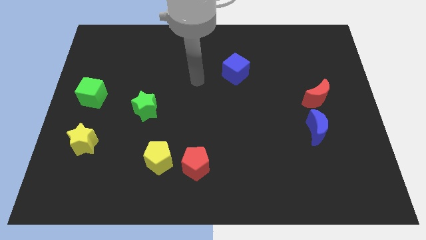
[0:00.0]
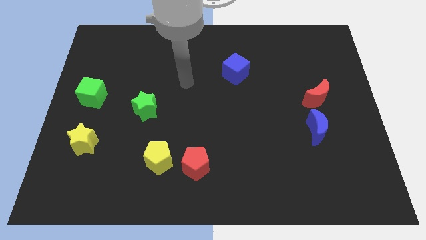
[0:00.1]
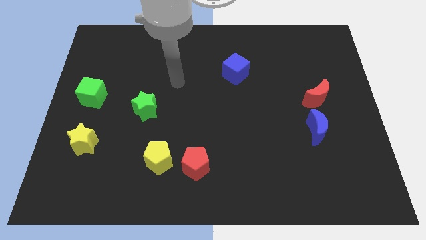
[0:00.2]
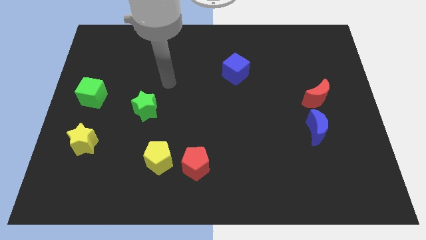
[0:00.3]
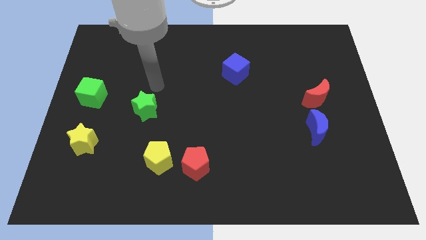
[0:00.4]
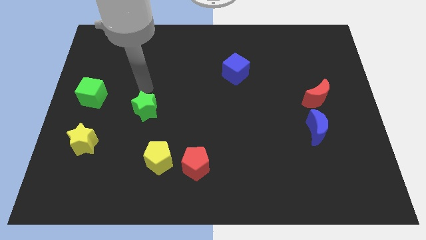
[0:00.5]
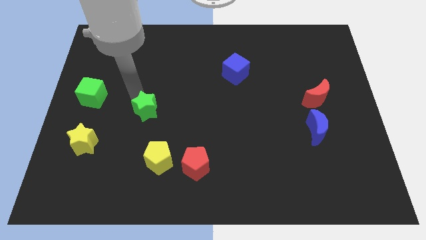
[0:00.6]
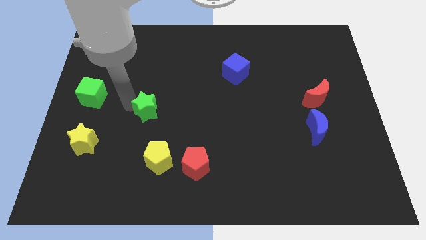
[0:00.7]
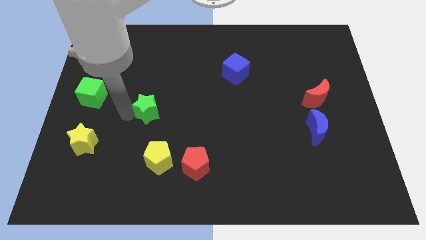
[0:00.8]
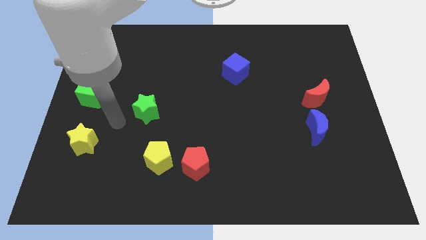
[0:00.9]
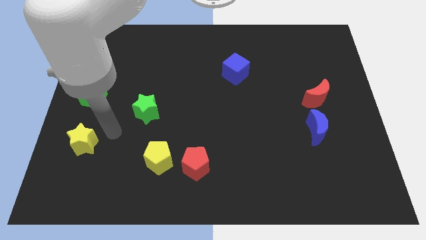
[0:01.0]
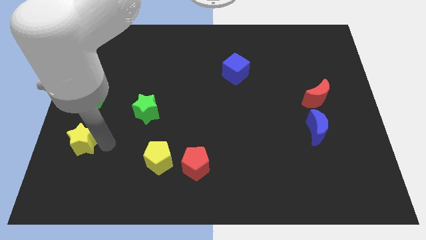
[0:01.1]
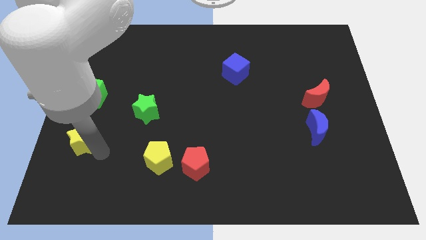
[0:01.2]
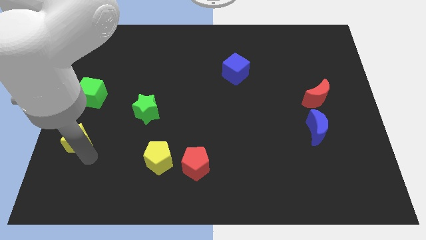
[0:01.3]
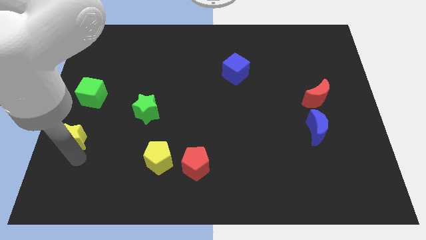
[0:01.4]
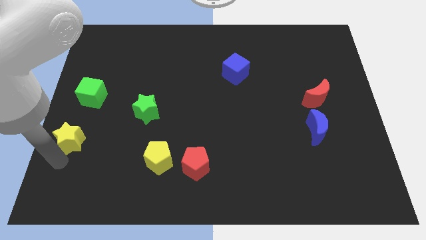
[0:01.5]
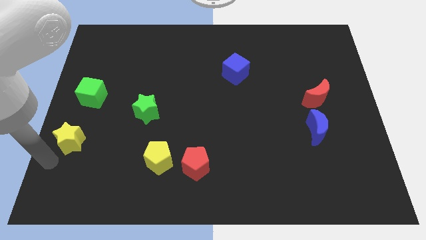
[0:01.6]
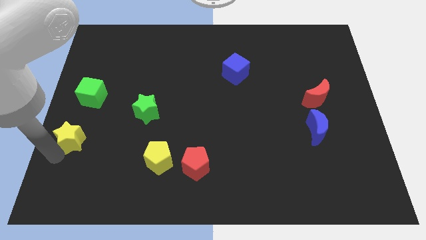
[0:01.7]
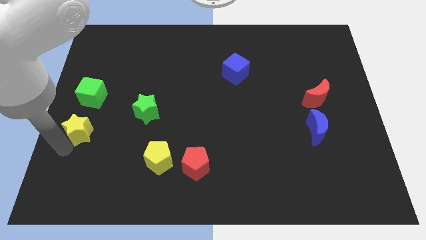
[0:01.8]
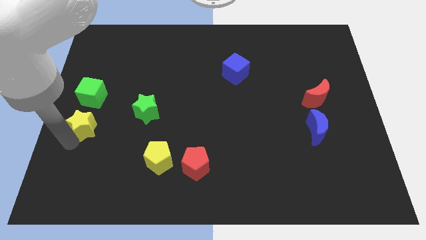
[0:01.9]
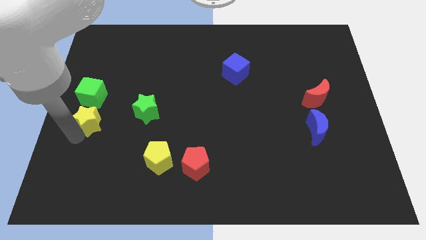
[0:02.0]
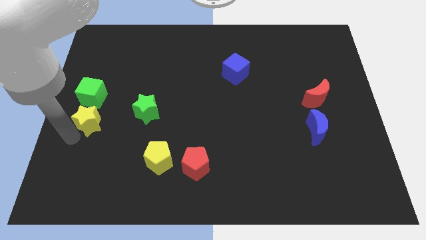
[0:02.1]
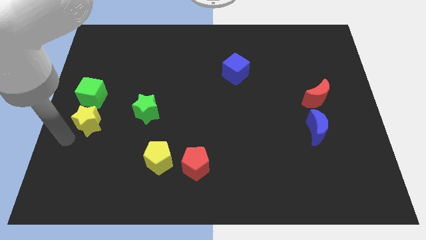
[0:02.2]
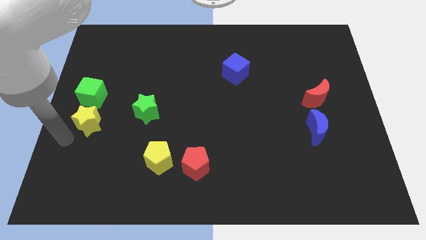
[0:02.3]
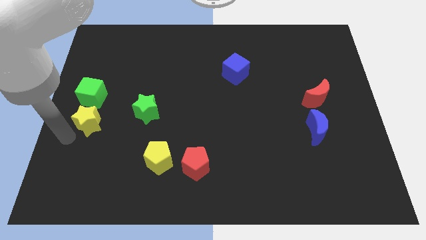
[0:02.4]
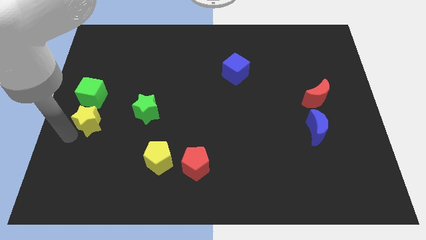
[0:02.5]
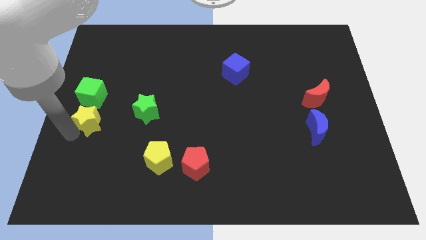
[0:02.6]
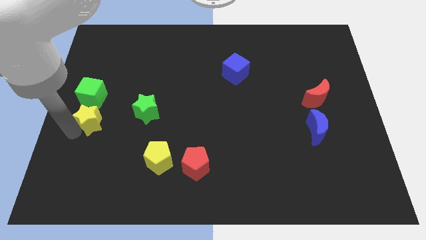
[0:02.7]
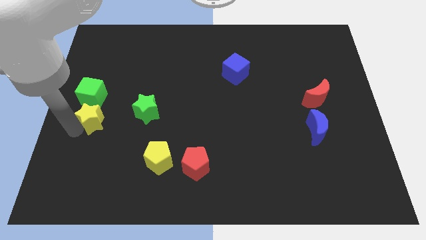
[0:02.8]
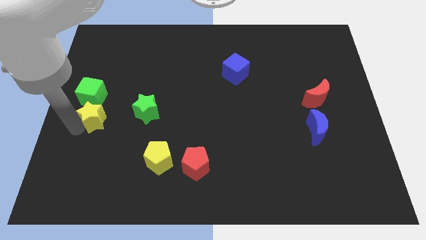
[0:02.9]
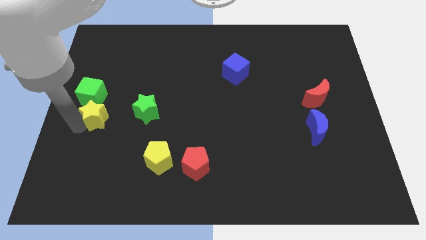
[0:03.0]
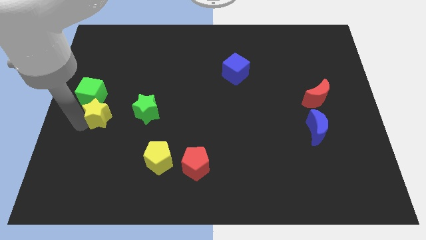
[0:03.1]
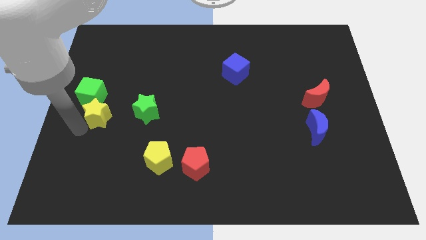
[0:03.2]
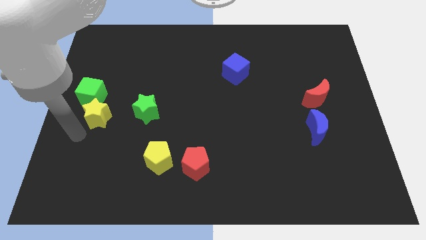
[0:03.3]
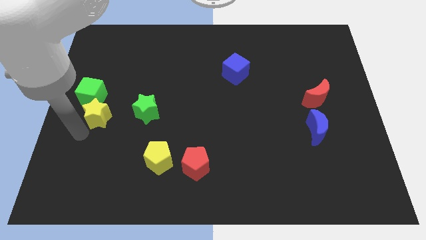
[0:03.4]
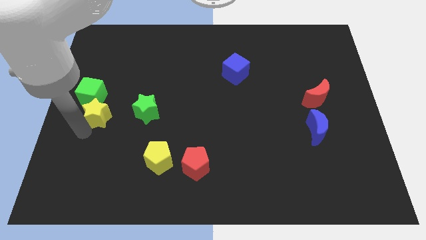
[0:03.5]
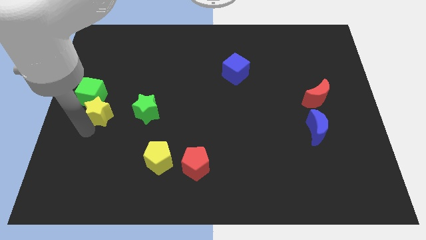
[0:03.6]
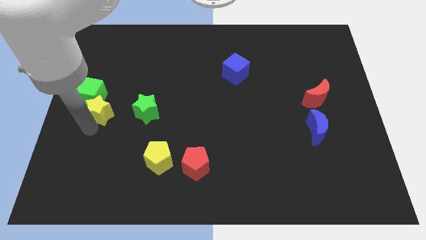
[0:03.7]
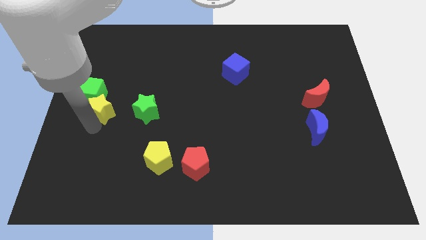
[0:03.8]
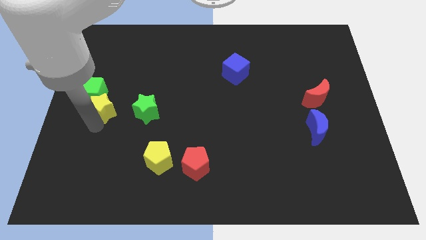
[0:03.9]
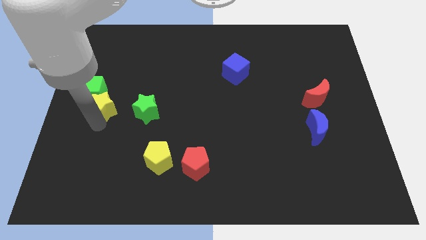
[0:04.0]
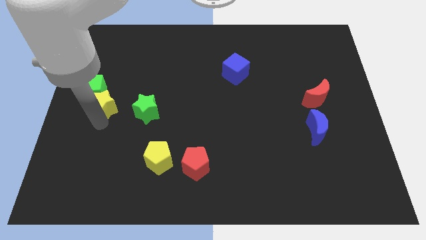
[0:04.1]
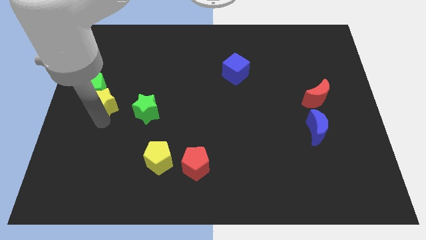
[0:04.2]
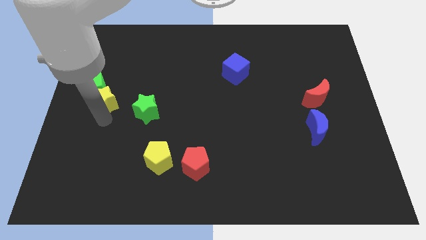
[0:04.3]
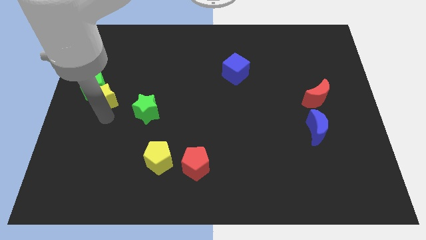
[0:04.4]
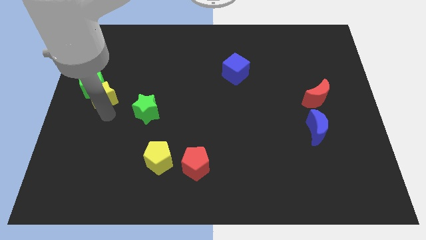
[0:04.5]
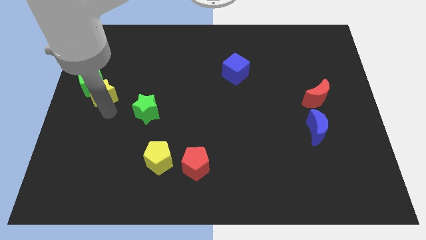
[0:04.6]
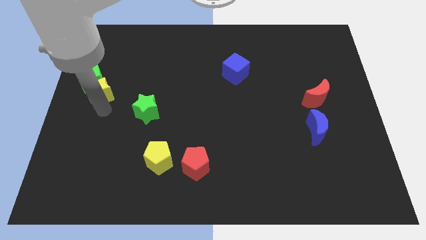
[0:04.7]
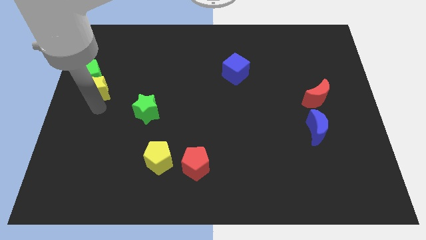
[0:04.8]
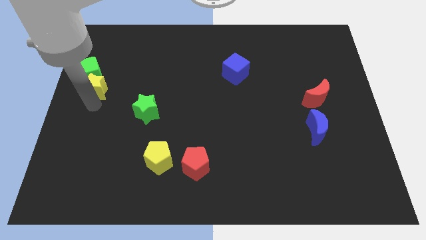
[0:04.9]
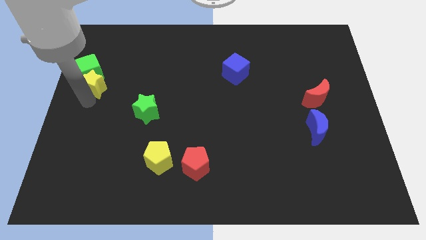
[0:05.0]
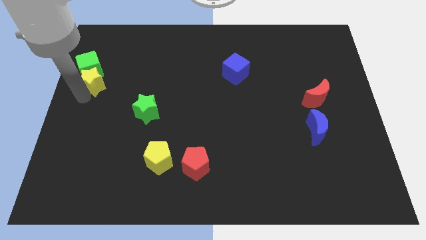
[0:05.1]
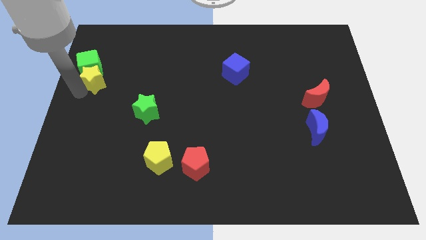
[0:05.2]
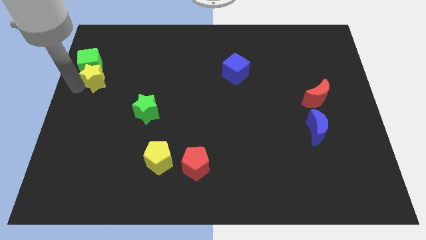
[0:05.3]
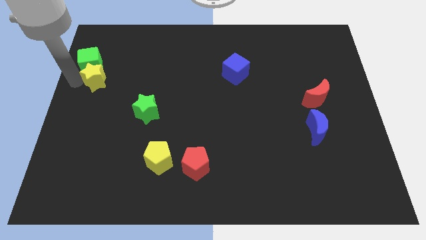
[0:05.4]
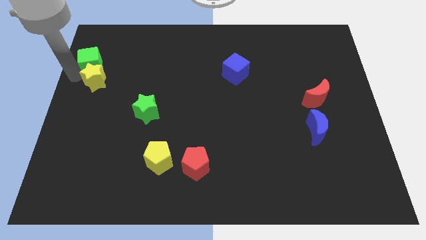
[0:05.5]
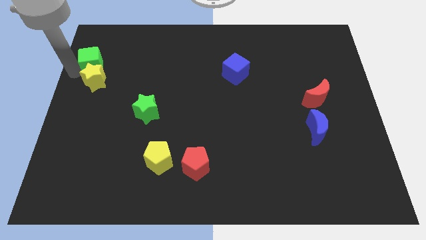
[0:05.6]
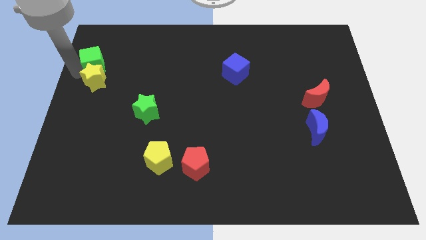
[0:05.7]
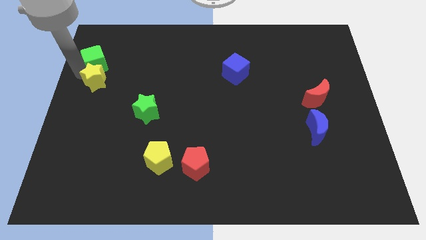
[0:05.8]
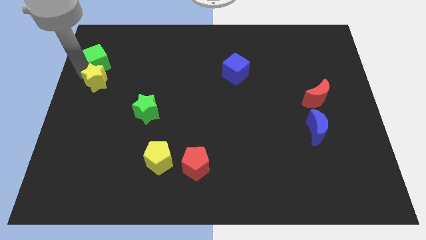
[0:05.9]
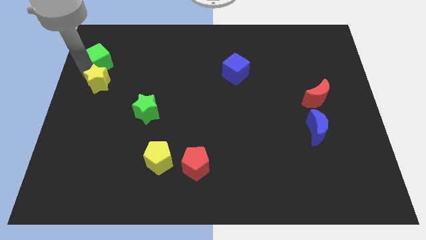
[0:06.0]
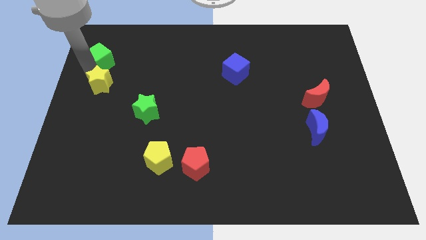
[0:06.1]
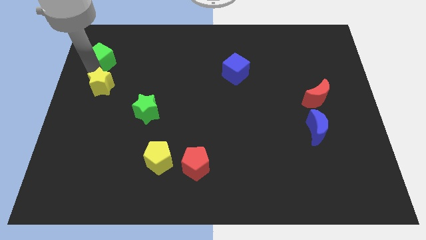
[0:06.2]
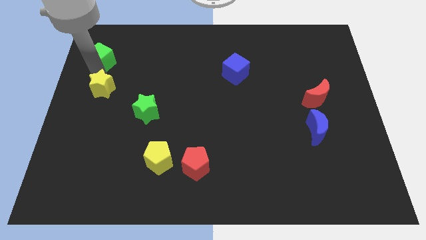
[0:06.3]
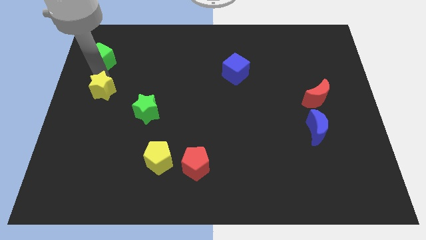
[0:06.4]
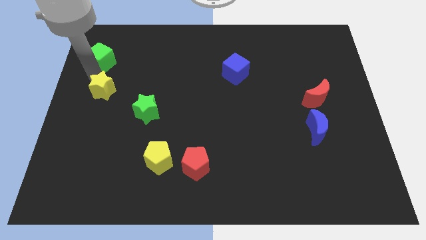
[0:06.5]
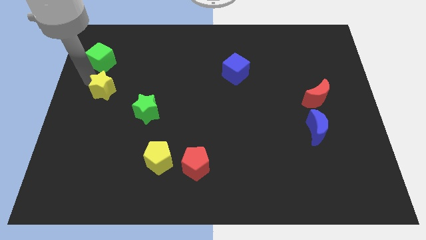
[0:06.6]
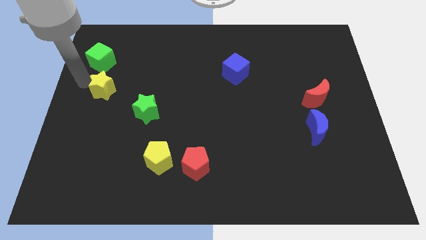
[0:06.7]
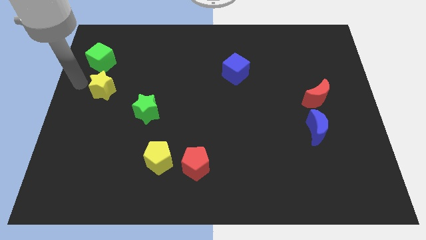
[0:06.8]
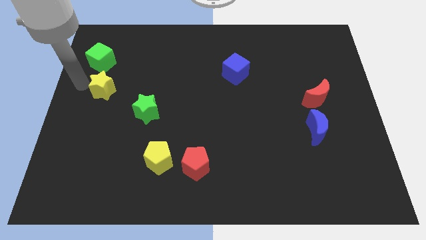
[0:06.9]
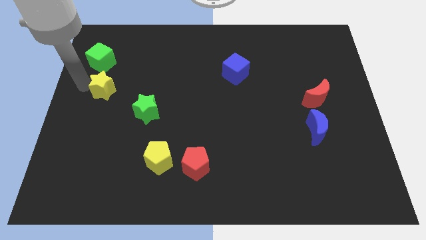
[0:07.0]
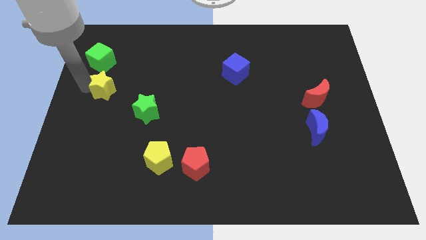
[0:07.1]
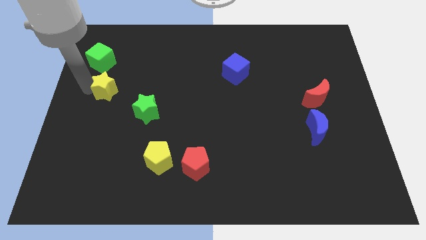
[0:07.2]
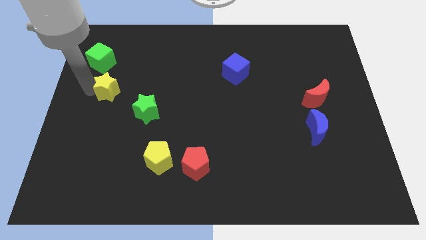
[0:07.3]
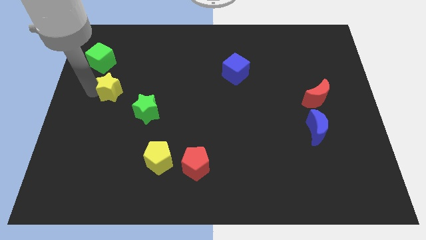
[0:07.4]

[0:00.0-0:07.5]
move the yellow star diagonally up and to the left of the green star
